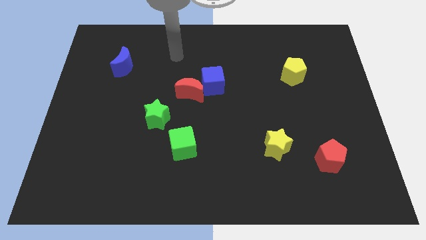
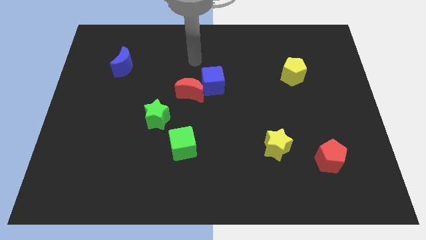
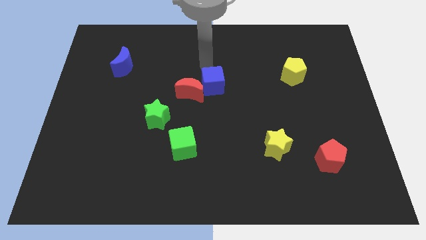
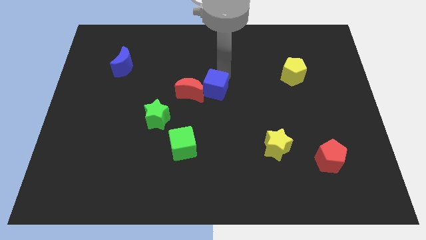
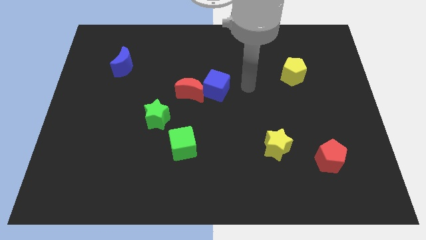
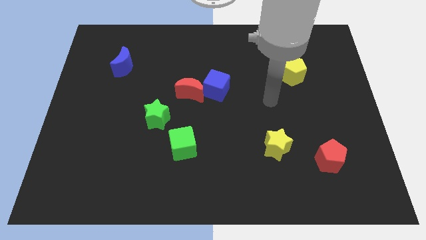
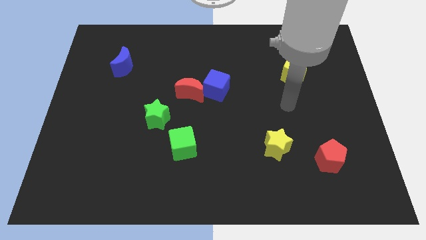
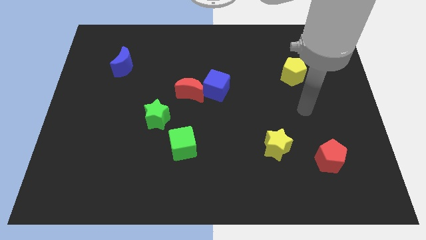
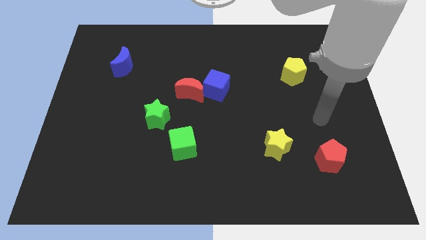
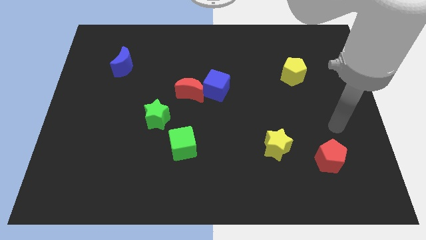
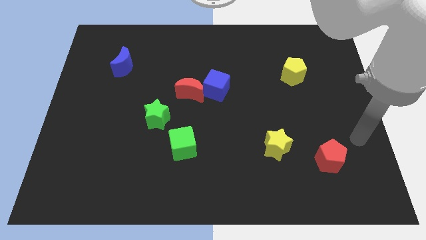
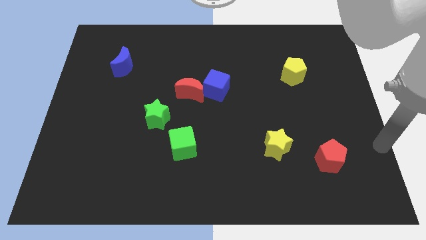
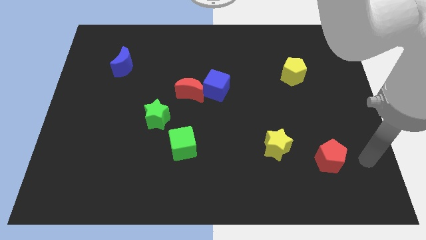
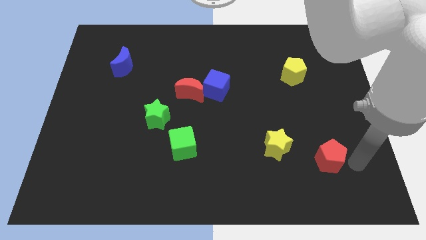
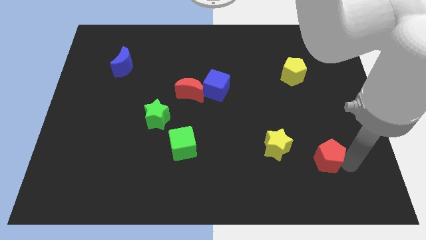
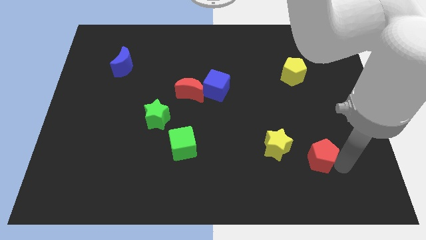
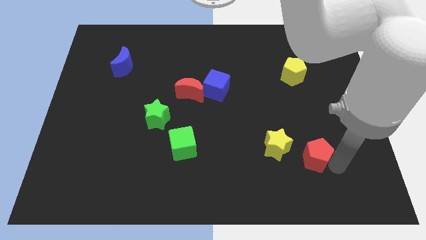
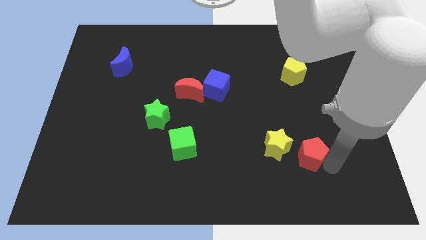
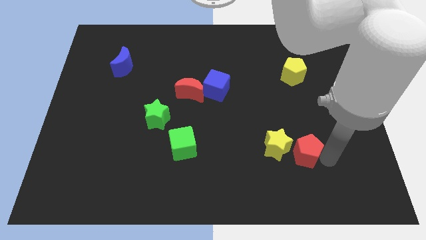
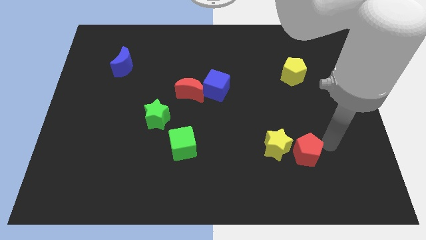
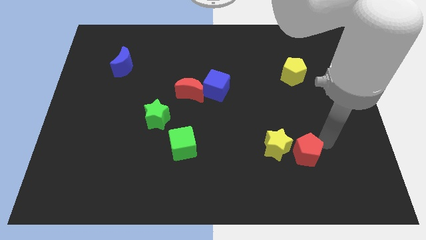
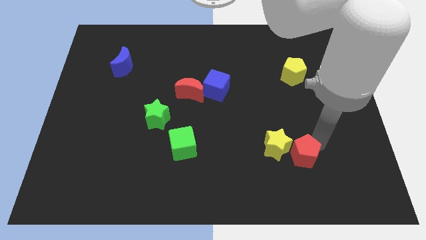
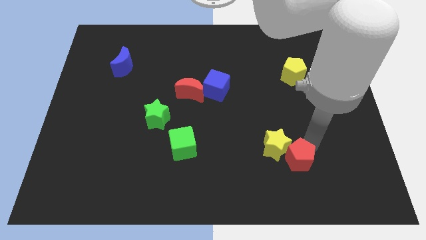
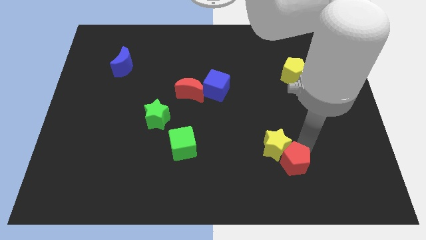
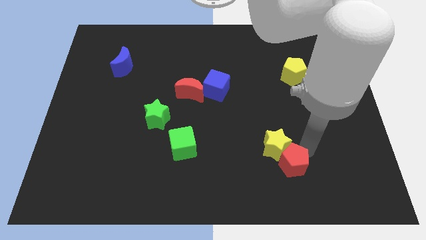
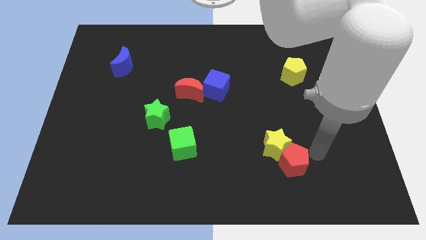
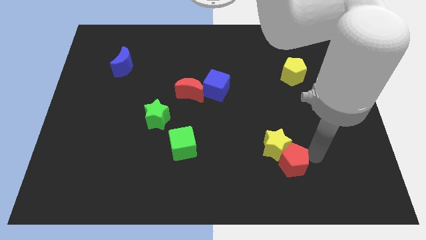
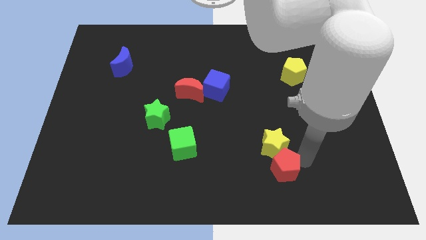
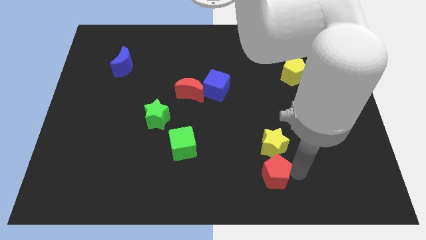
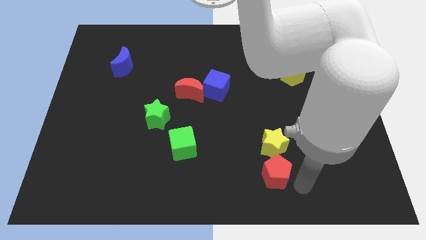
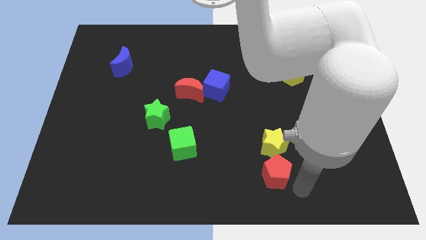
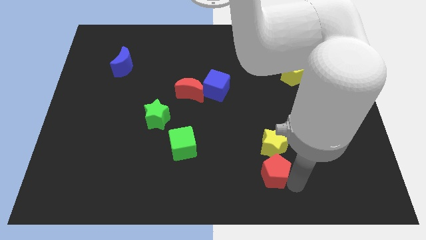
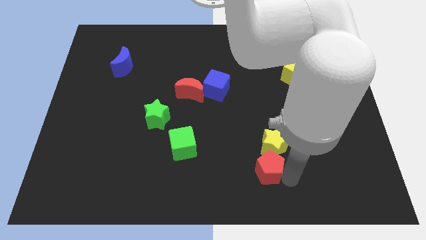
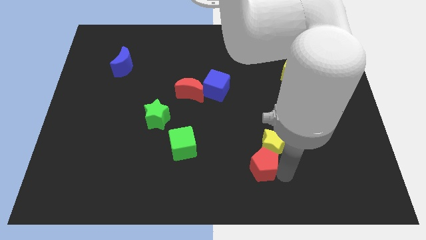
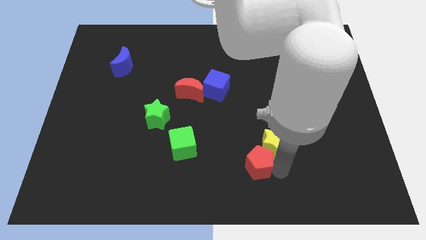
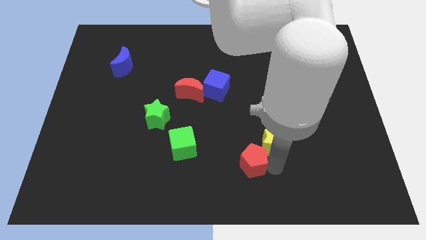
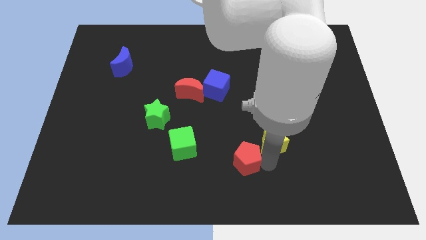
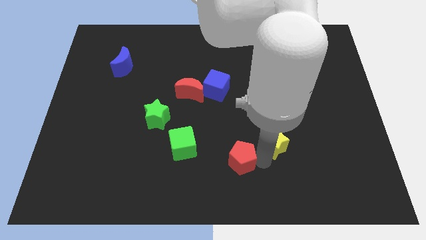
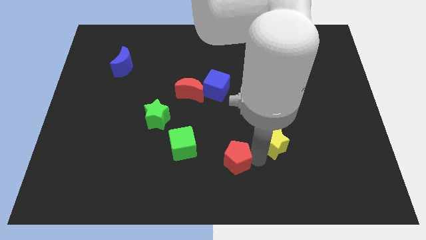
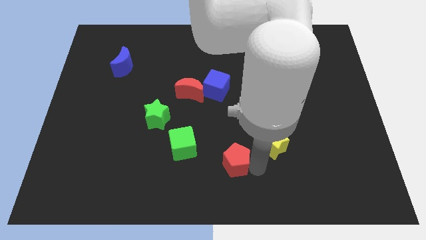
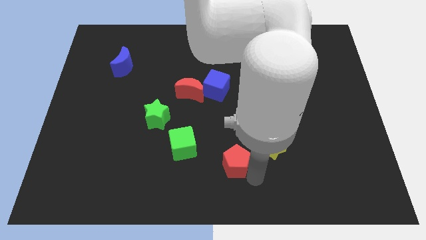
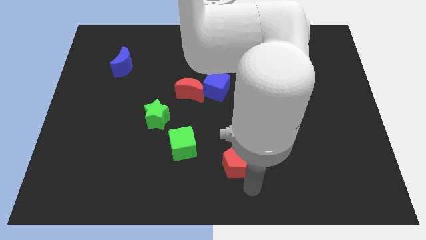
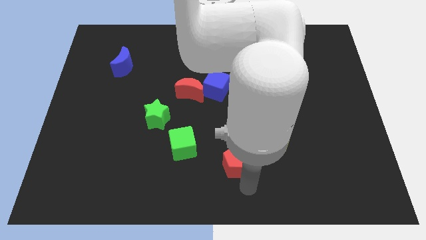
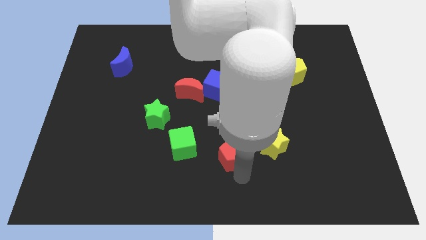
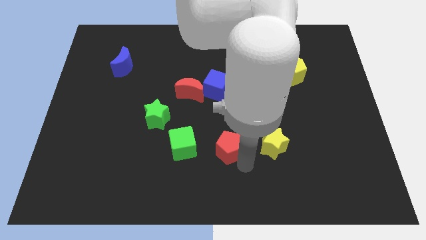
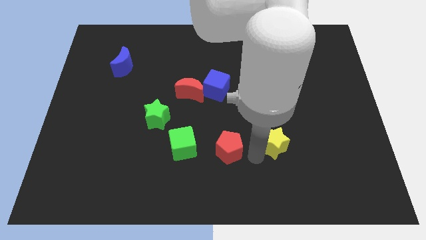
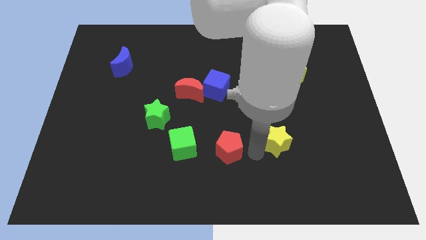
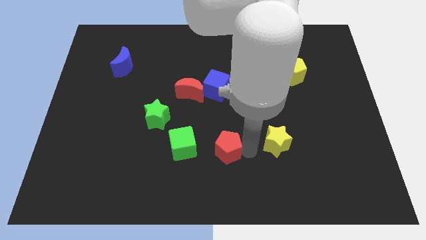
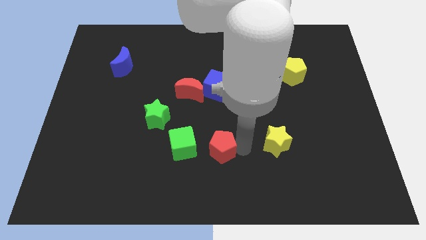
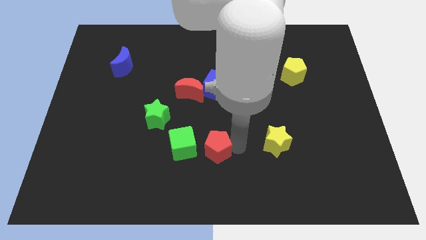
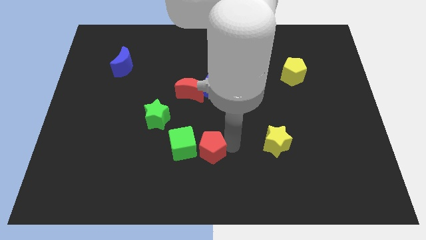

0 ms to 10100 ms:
slide the red pentagon to the green cube

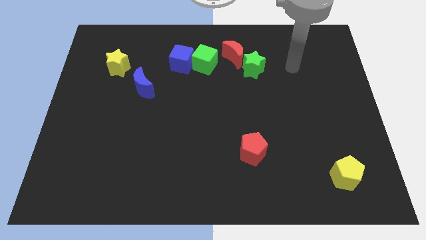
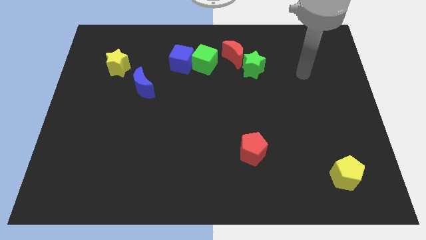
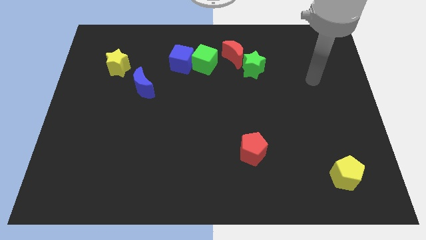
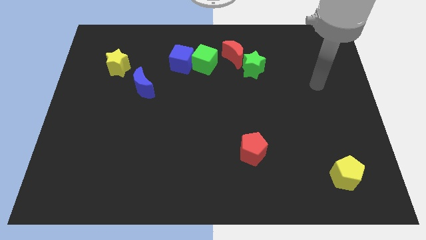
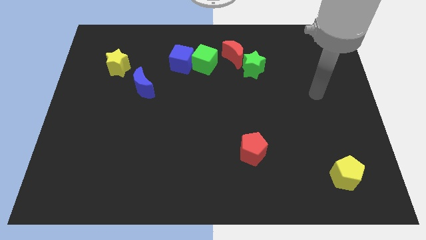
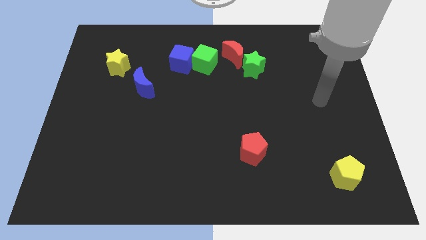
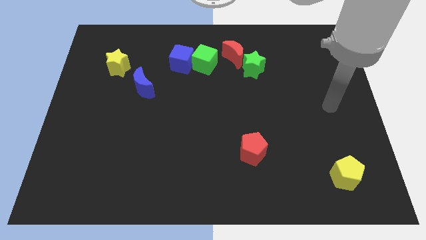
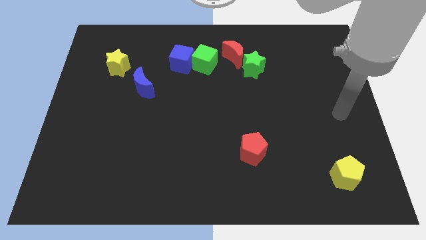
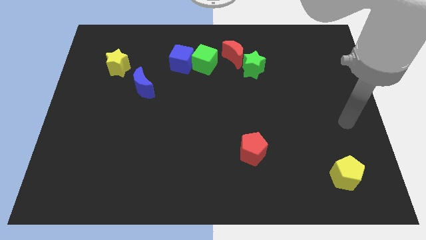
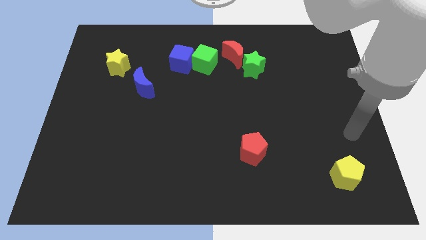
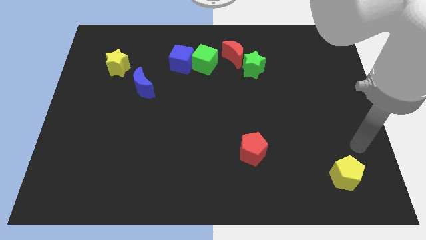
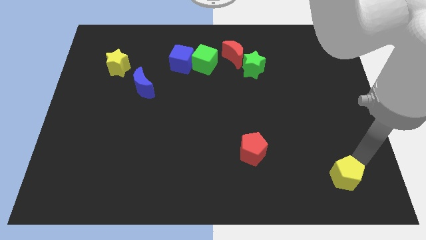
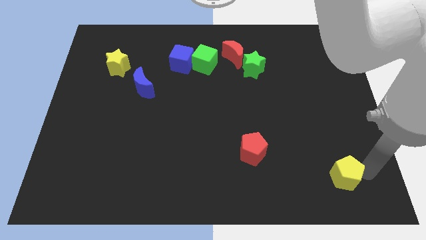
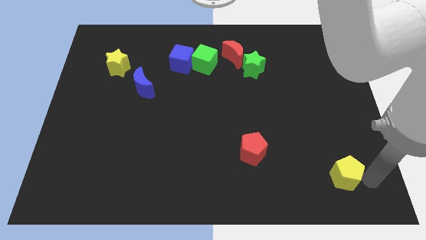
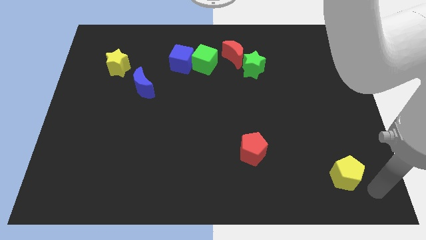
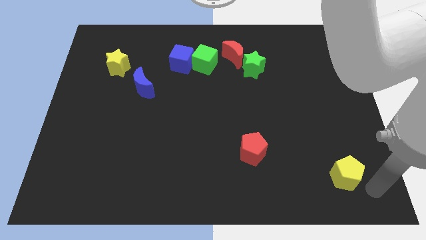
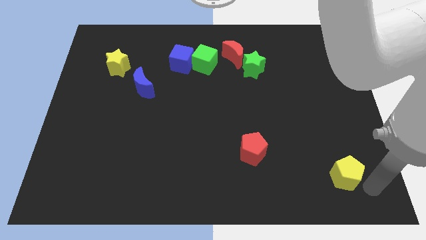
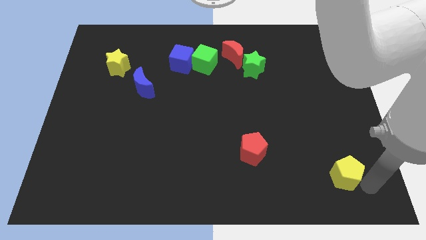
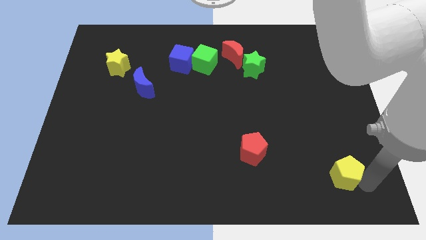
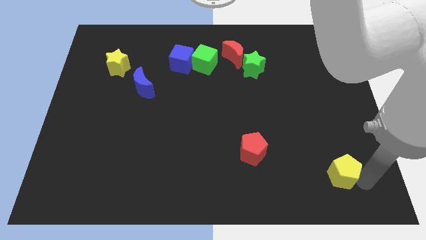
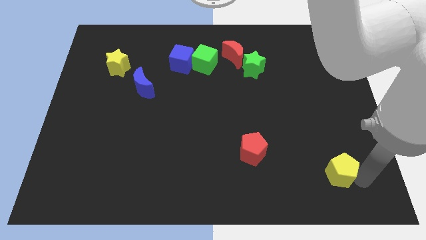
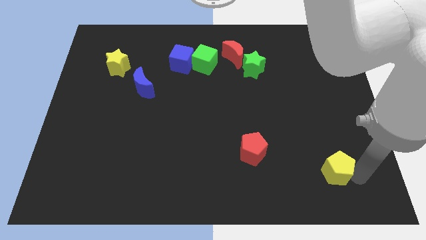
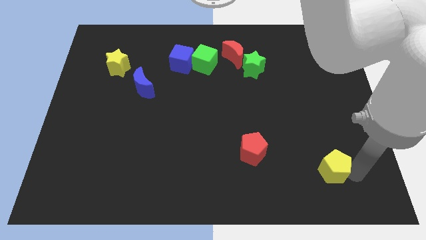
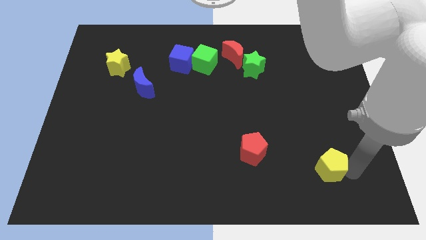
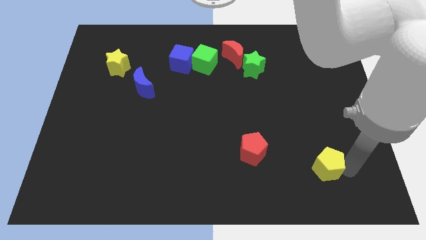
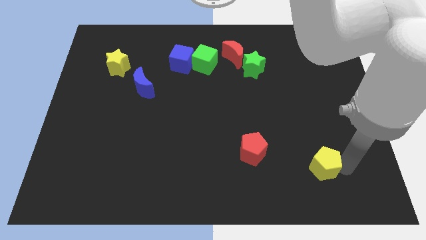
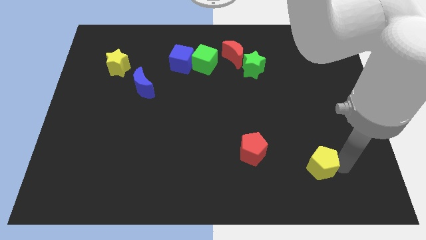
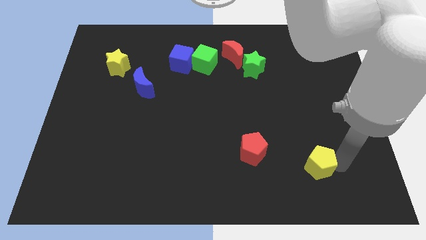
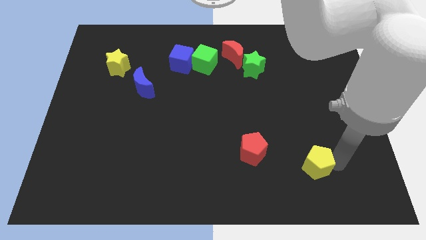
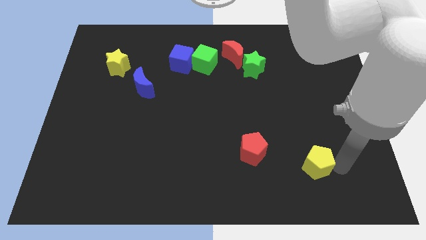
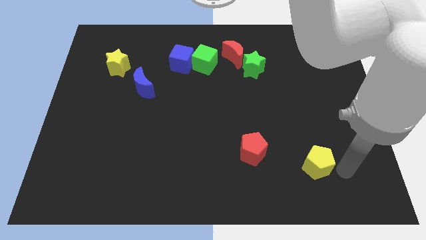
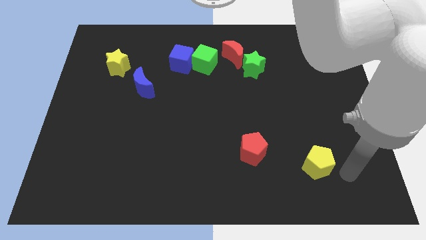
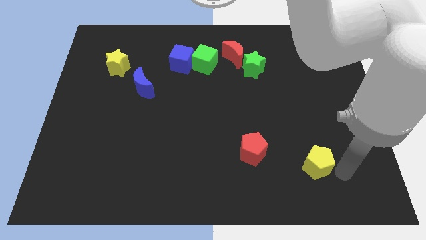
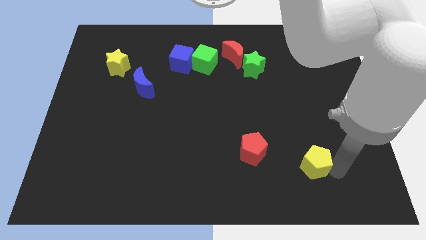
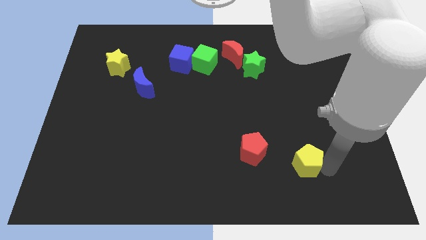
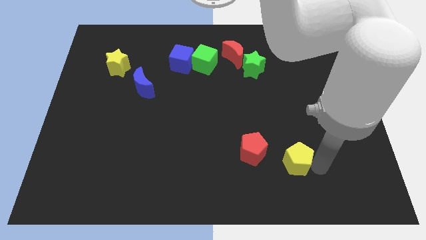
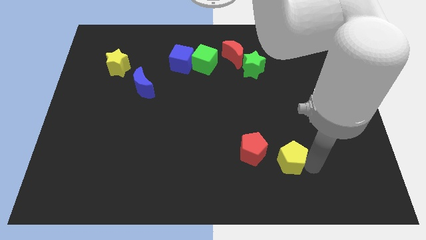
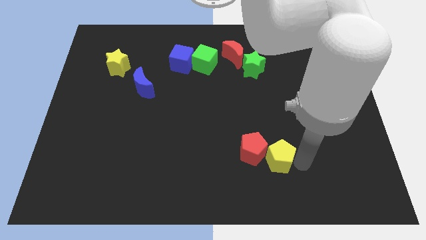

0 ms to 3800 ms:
push the yellow pentagon towards the red pentagon
